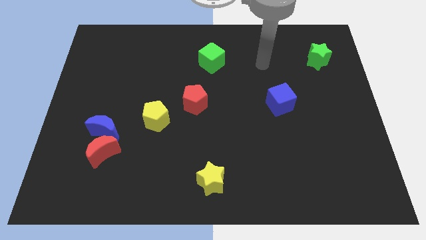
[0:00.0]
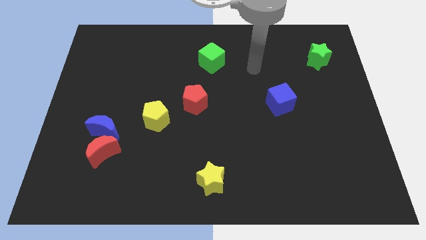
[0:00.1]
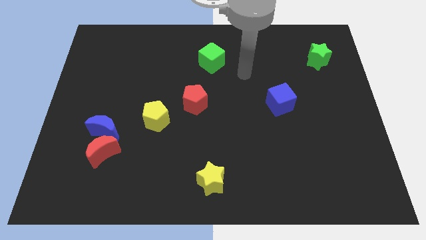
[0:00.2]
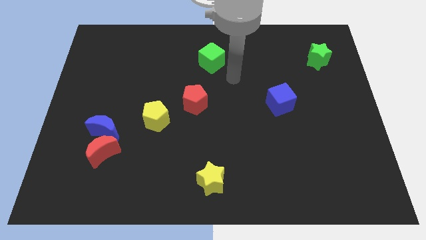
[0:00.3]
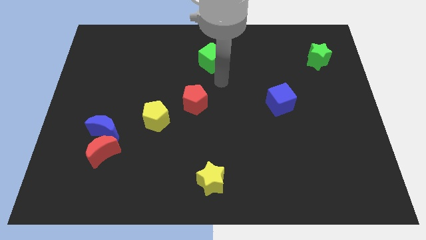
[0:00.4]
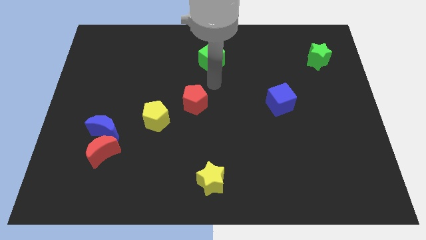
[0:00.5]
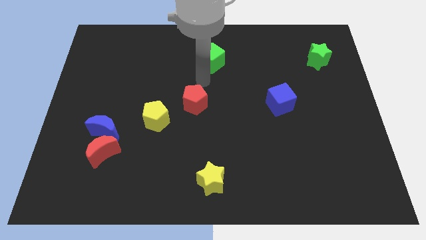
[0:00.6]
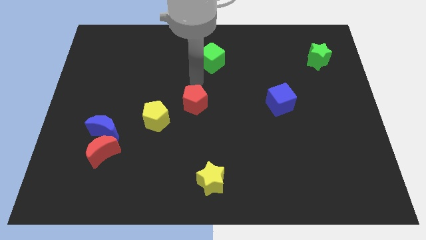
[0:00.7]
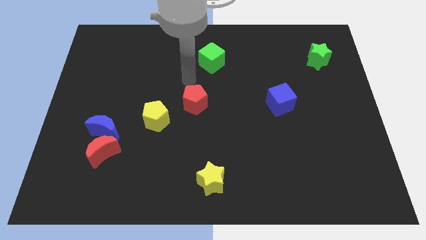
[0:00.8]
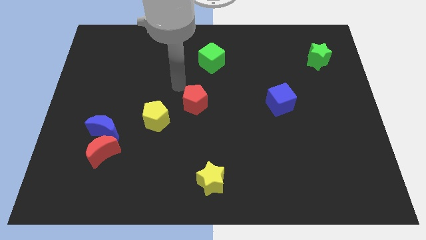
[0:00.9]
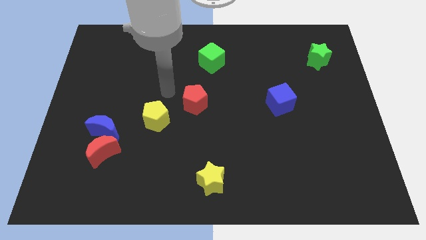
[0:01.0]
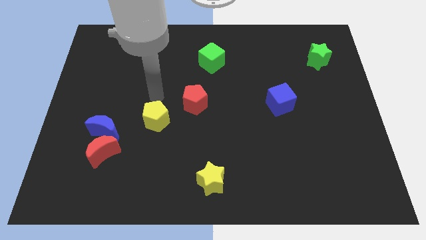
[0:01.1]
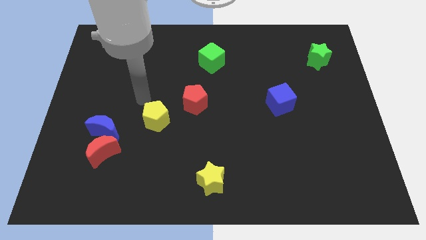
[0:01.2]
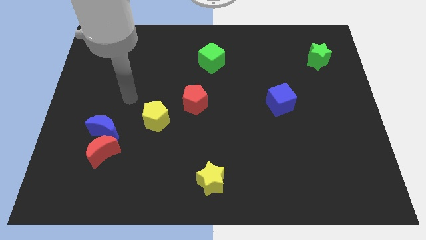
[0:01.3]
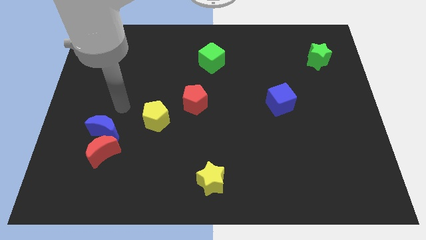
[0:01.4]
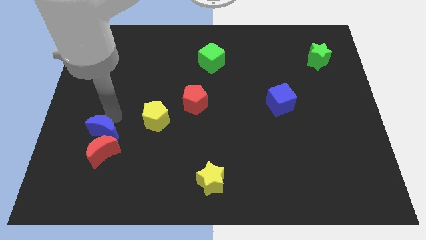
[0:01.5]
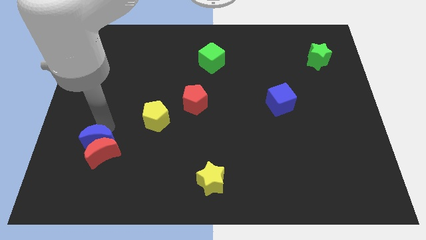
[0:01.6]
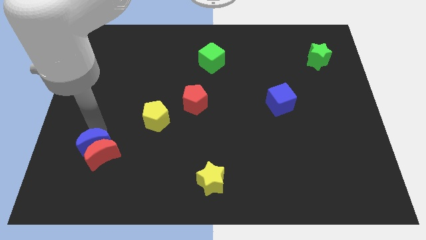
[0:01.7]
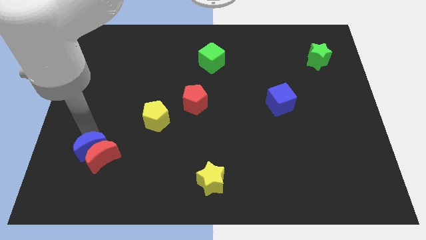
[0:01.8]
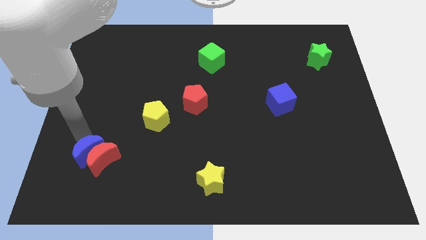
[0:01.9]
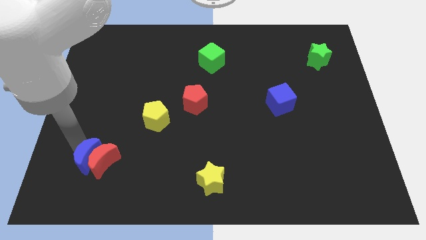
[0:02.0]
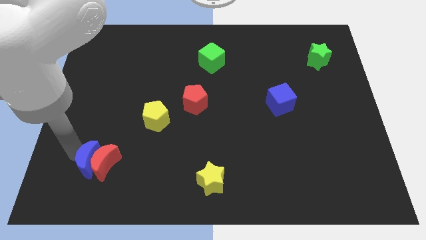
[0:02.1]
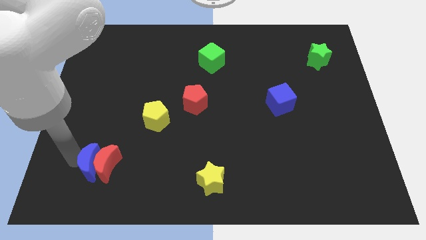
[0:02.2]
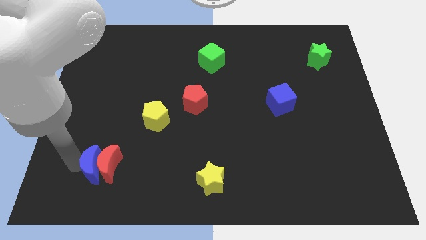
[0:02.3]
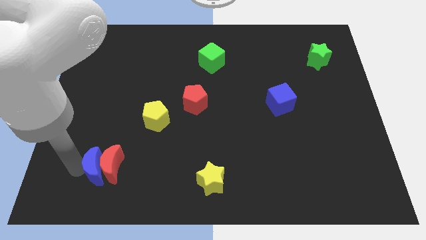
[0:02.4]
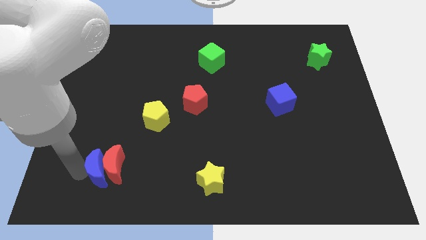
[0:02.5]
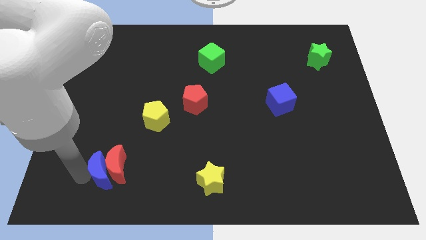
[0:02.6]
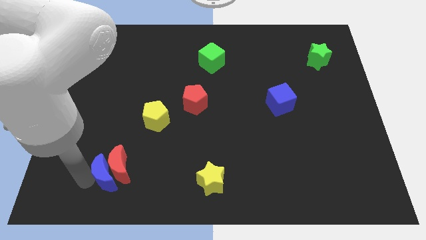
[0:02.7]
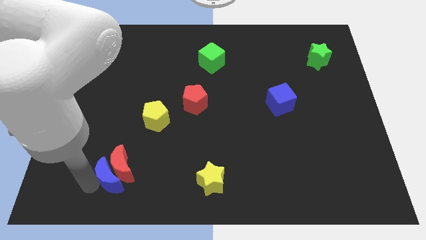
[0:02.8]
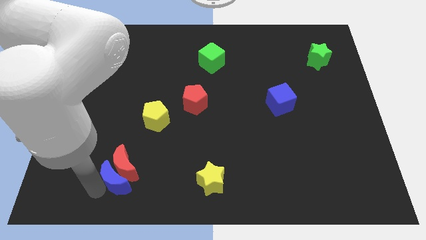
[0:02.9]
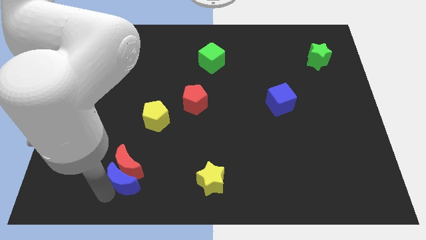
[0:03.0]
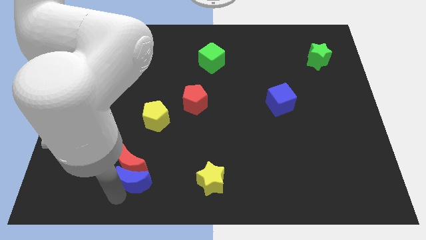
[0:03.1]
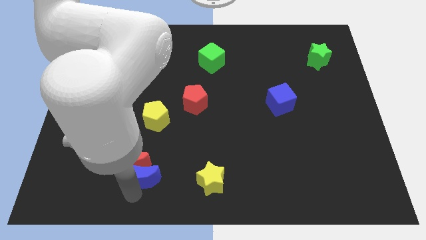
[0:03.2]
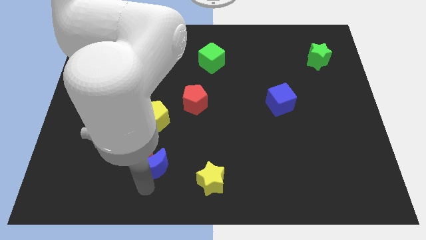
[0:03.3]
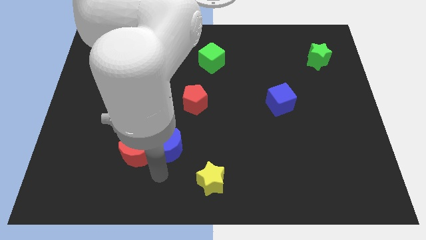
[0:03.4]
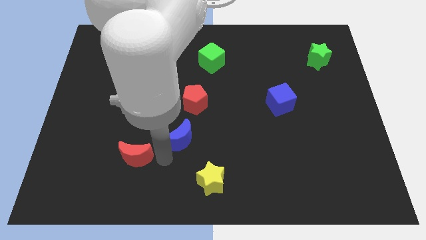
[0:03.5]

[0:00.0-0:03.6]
pull the red moon apart from the blue moon

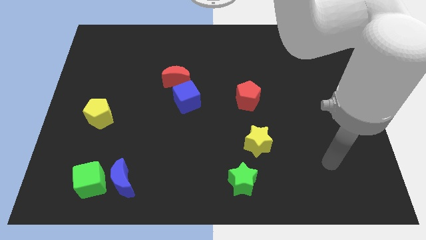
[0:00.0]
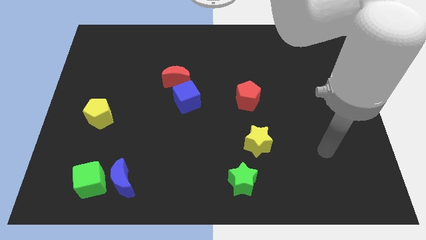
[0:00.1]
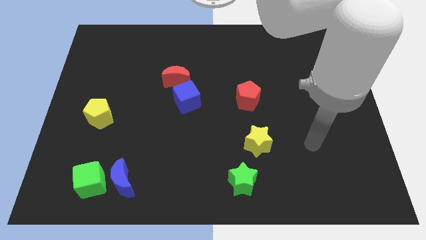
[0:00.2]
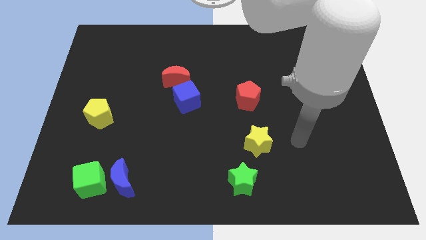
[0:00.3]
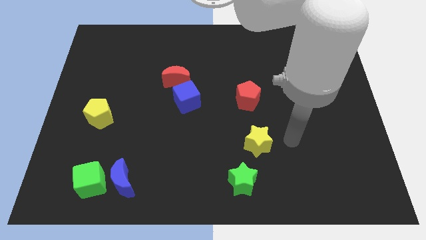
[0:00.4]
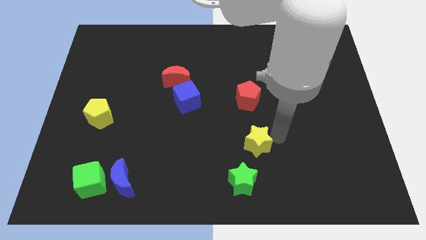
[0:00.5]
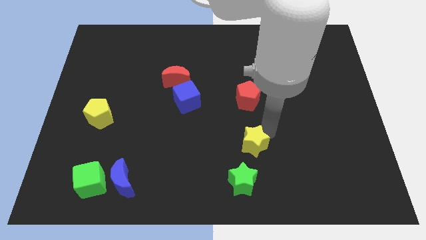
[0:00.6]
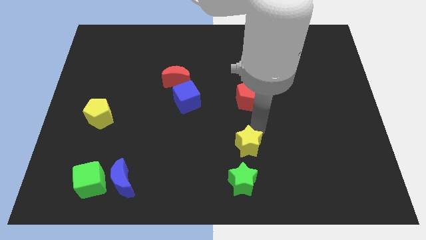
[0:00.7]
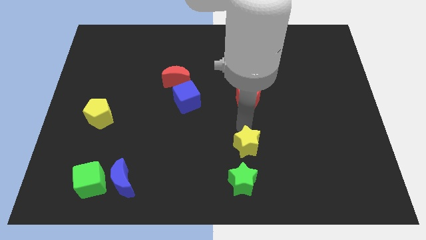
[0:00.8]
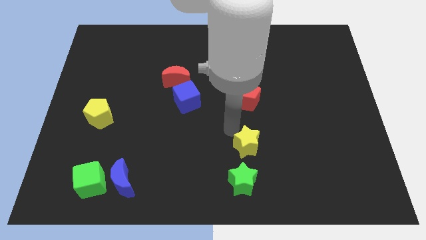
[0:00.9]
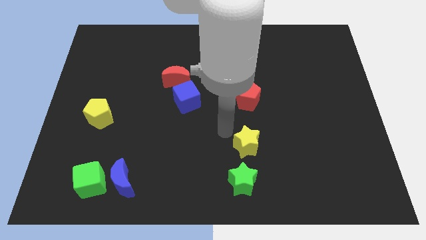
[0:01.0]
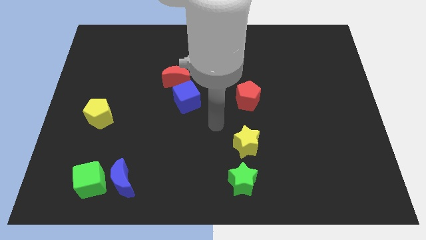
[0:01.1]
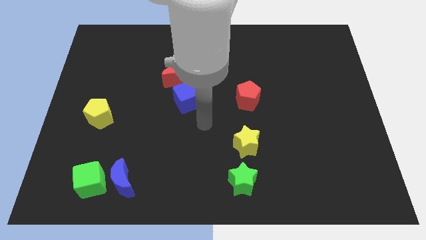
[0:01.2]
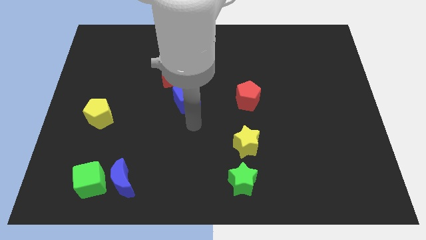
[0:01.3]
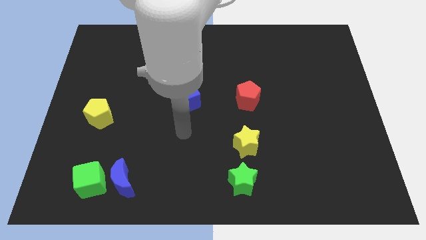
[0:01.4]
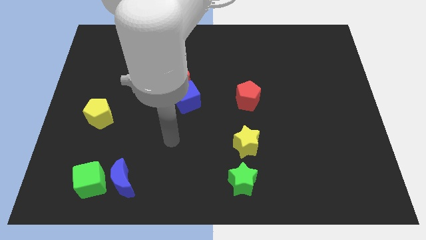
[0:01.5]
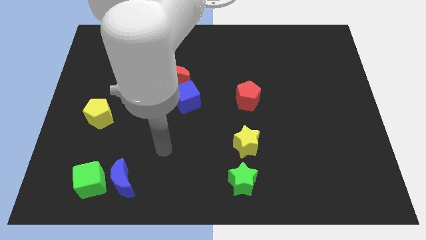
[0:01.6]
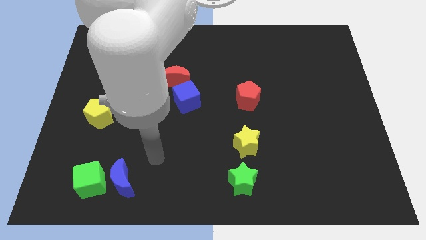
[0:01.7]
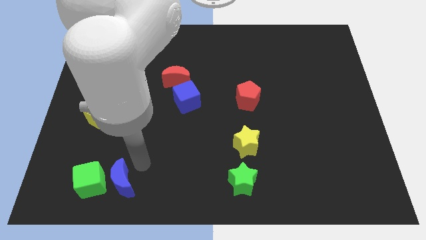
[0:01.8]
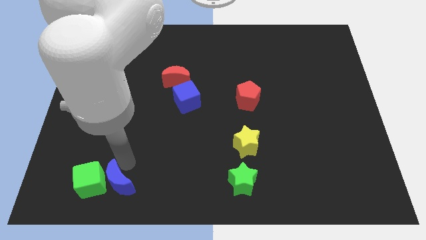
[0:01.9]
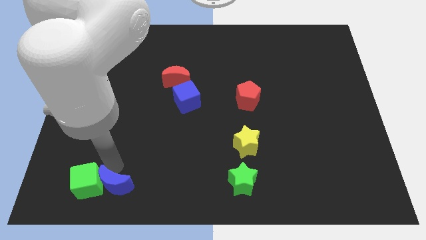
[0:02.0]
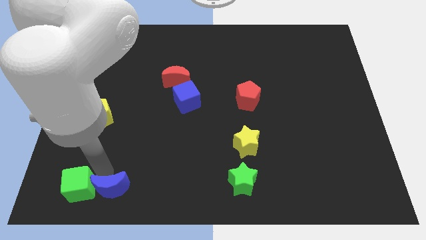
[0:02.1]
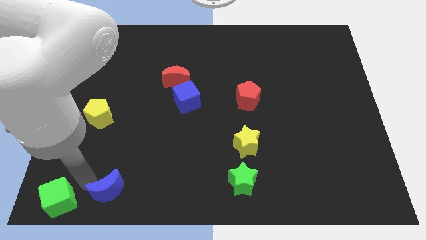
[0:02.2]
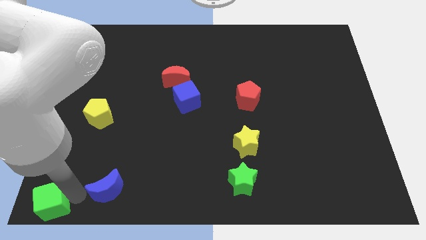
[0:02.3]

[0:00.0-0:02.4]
separate the blue moon from the green cube

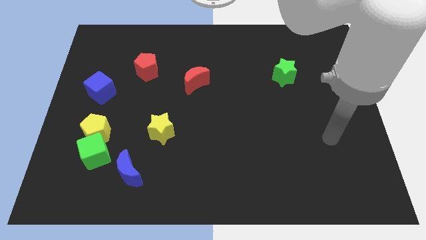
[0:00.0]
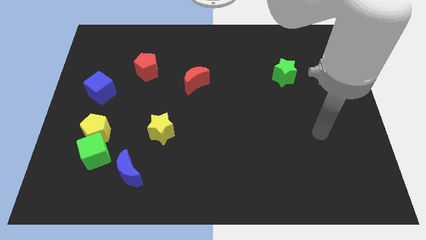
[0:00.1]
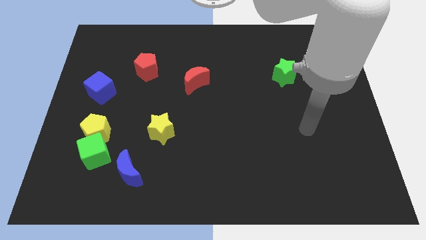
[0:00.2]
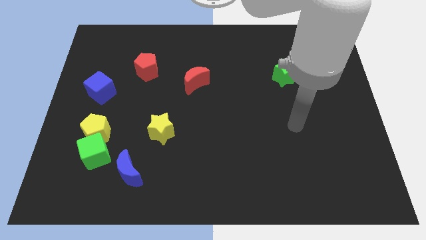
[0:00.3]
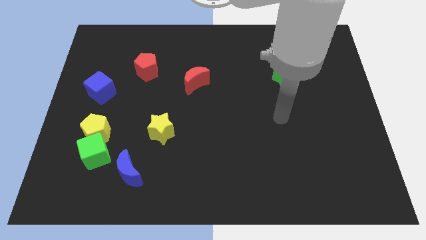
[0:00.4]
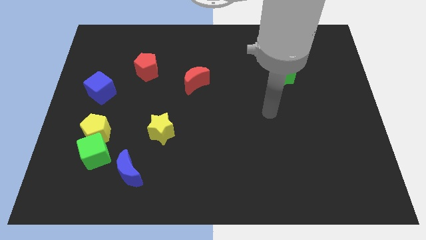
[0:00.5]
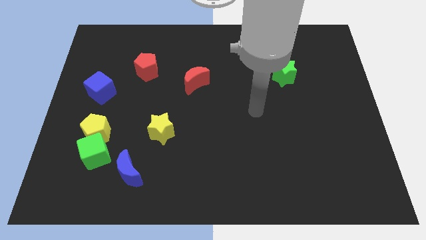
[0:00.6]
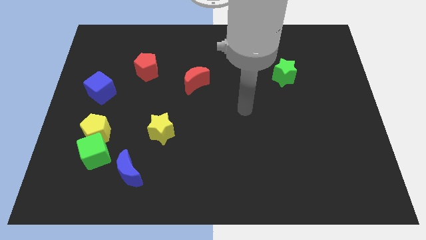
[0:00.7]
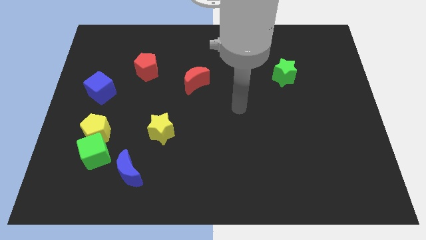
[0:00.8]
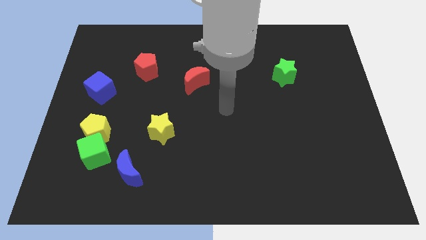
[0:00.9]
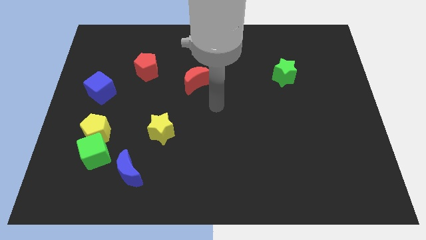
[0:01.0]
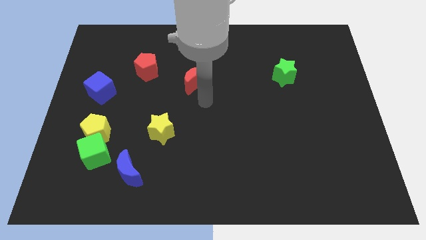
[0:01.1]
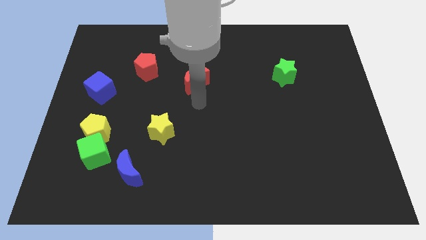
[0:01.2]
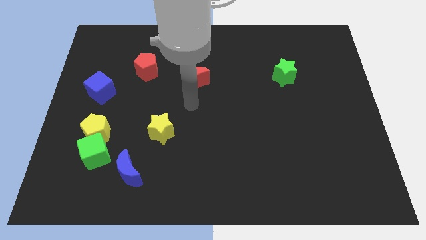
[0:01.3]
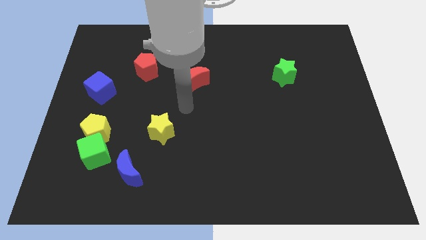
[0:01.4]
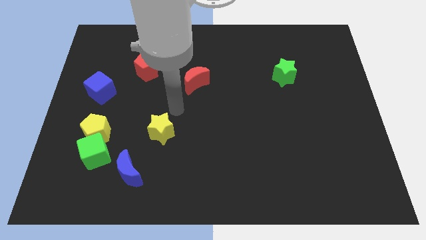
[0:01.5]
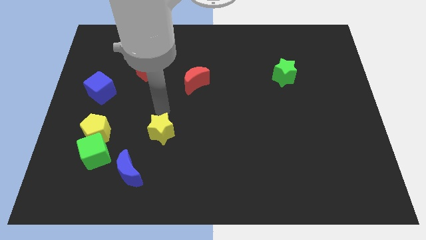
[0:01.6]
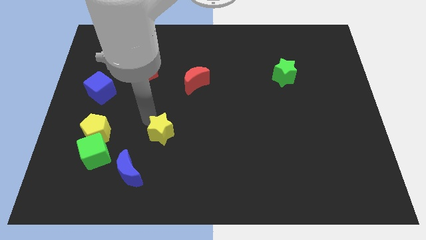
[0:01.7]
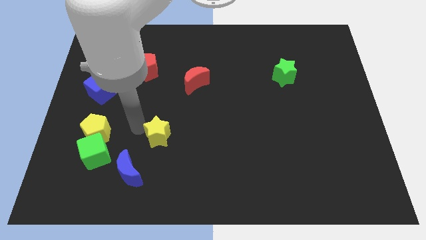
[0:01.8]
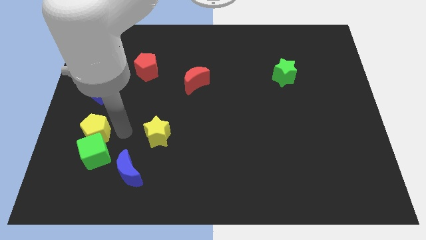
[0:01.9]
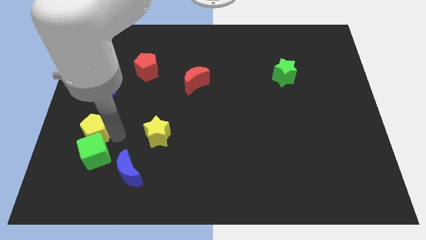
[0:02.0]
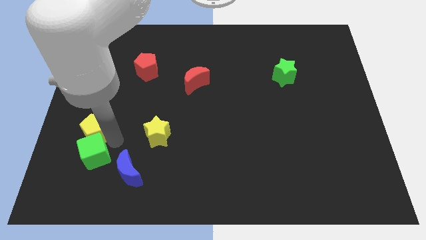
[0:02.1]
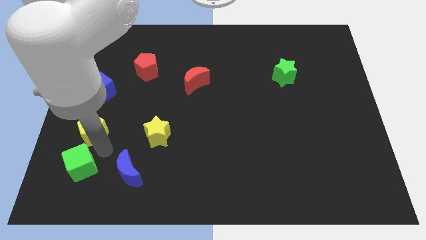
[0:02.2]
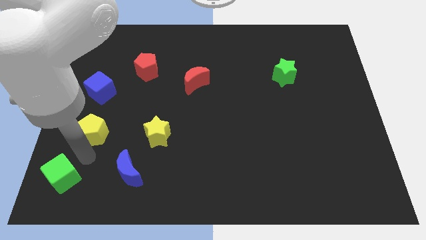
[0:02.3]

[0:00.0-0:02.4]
separate the yellow pentagon from the green cube

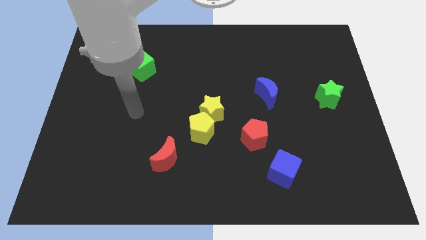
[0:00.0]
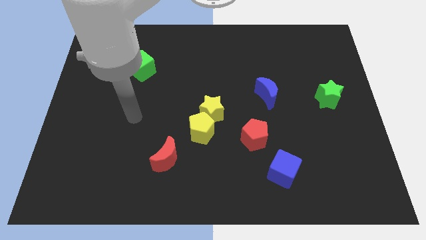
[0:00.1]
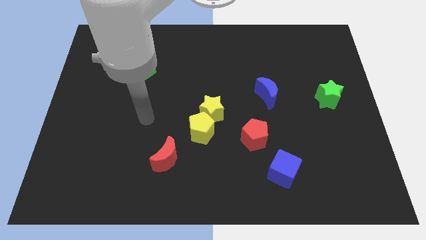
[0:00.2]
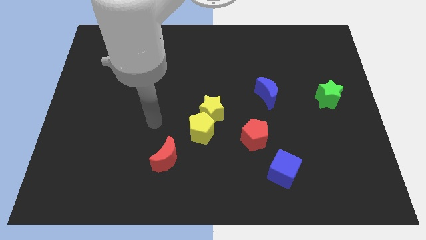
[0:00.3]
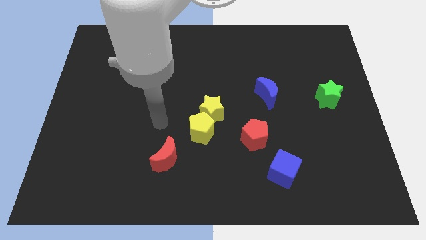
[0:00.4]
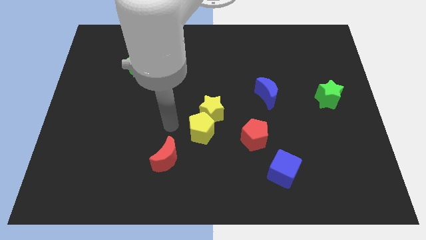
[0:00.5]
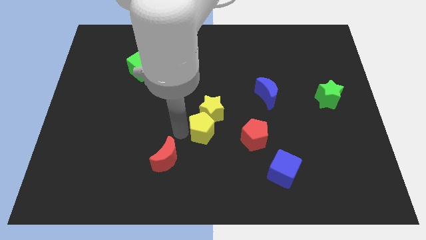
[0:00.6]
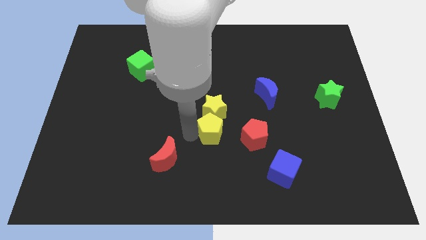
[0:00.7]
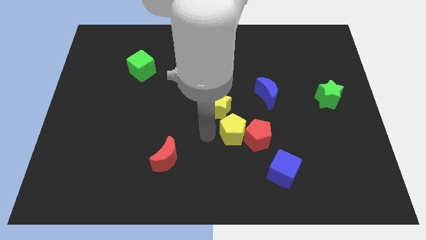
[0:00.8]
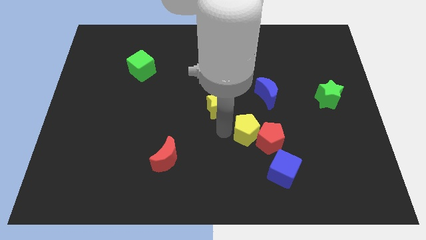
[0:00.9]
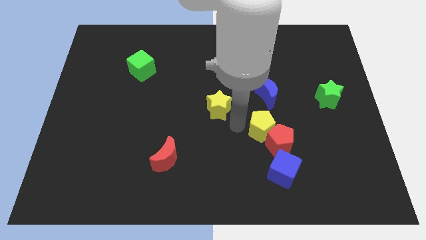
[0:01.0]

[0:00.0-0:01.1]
separate the yellow star from the yellow pentagon
